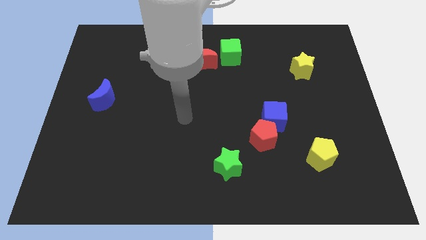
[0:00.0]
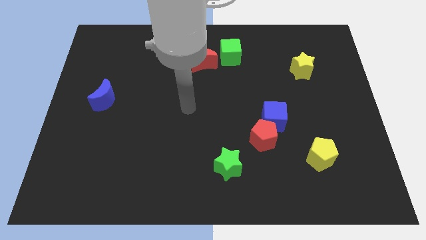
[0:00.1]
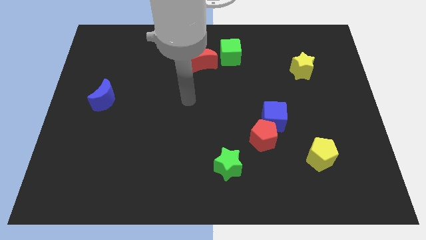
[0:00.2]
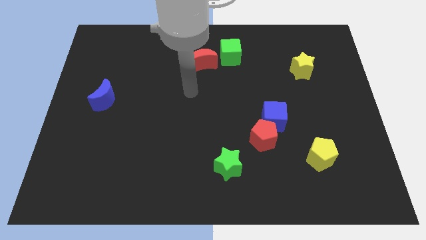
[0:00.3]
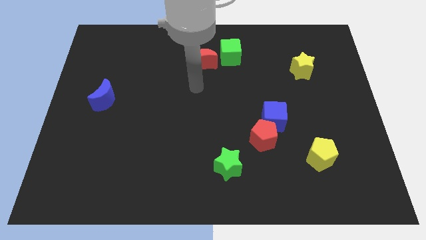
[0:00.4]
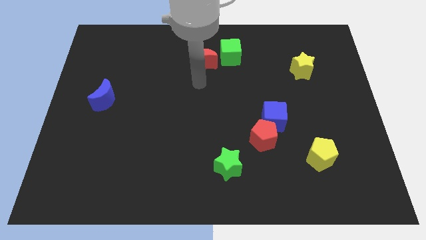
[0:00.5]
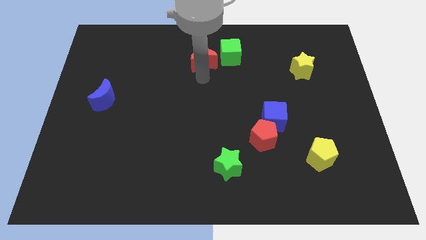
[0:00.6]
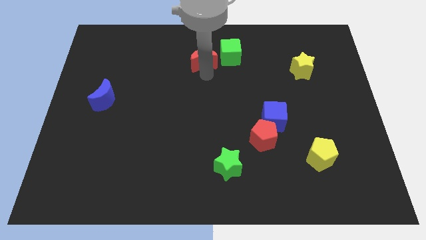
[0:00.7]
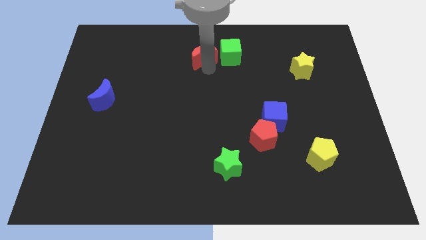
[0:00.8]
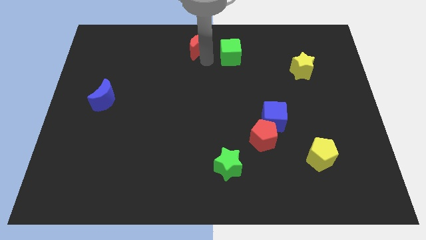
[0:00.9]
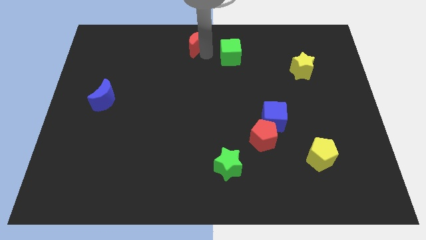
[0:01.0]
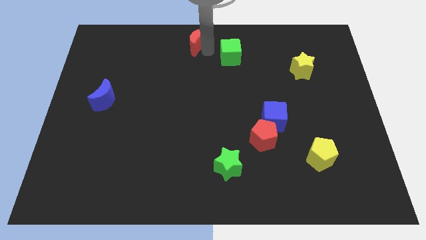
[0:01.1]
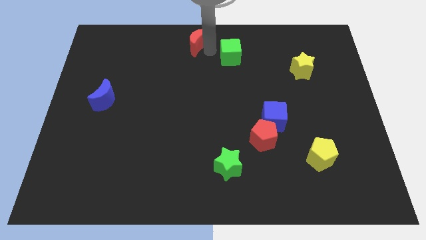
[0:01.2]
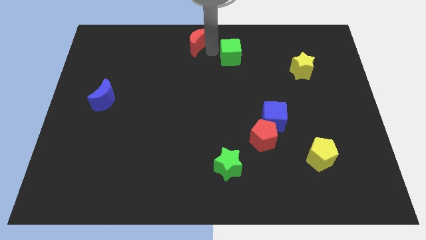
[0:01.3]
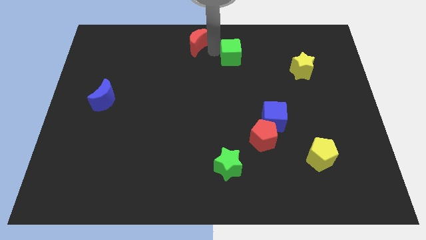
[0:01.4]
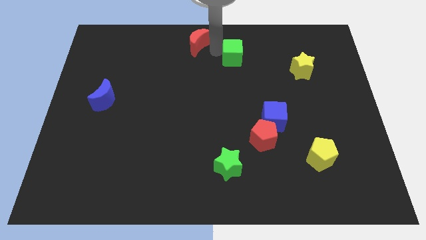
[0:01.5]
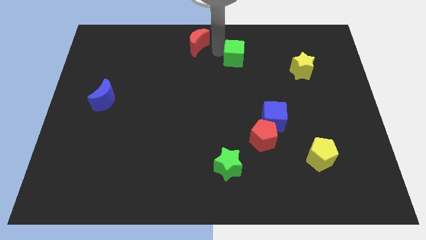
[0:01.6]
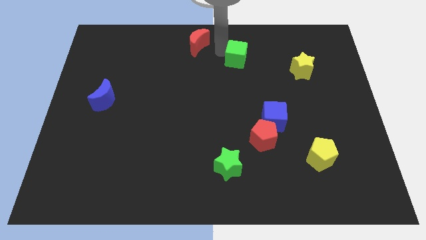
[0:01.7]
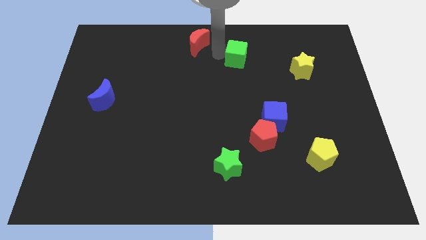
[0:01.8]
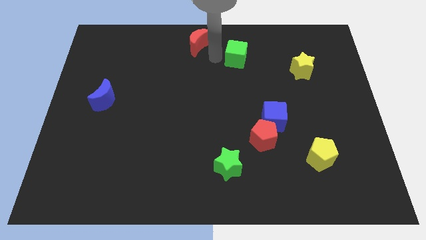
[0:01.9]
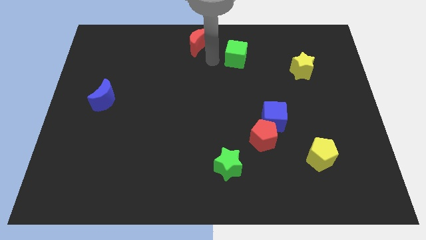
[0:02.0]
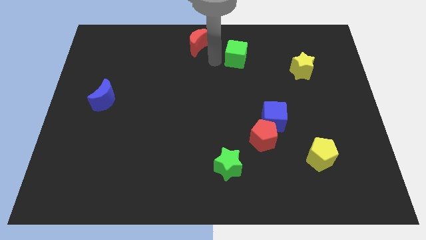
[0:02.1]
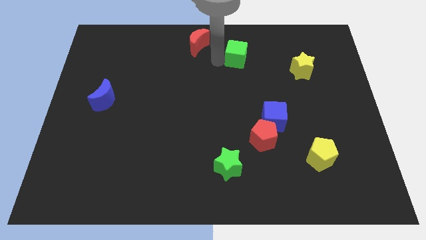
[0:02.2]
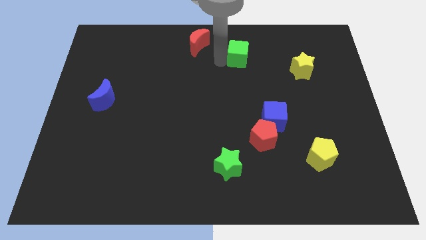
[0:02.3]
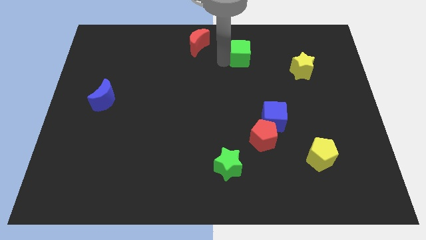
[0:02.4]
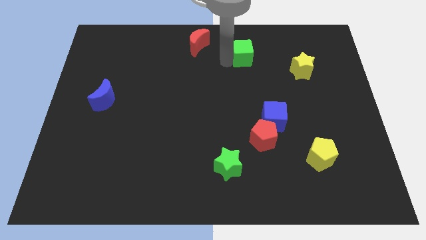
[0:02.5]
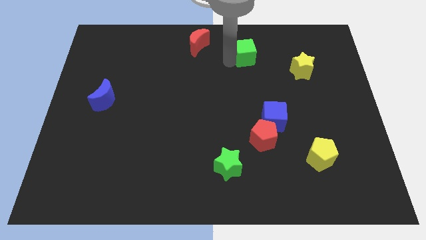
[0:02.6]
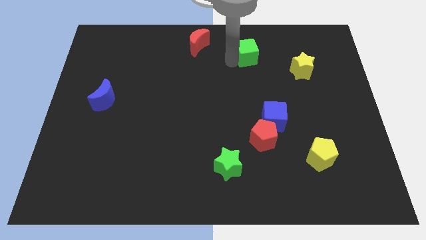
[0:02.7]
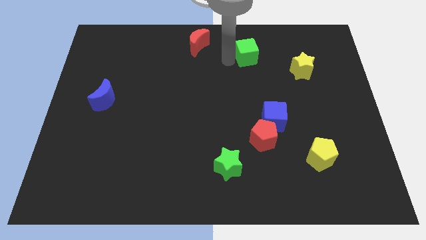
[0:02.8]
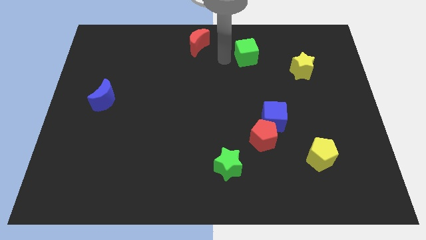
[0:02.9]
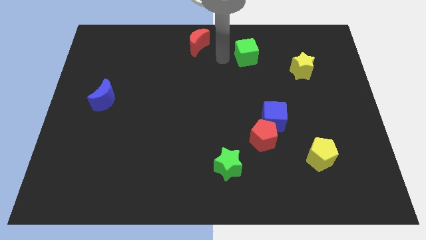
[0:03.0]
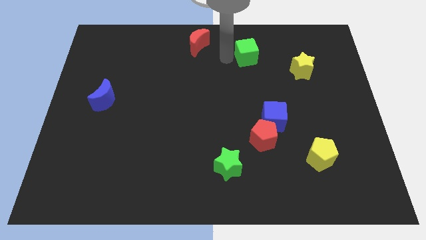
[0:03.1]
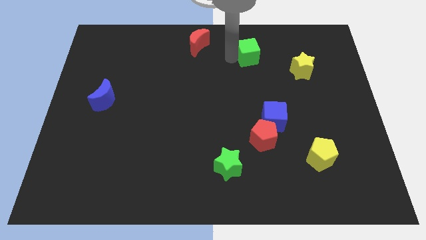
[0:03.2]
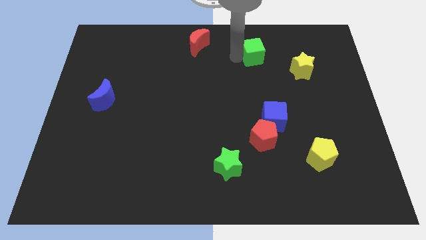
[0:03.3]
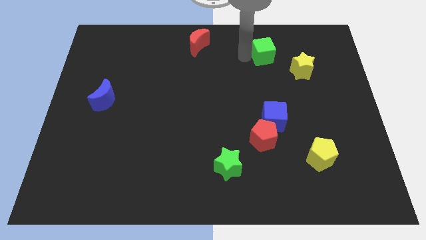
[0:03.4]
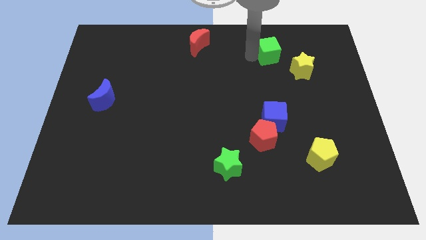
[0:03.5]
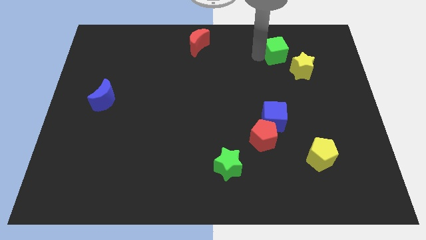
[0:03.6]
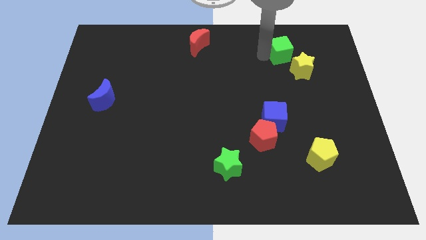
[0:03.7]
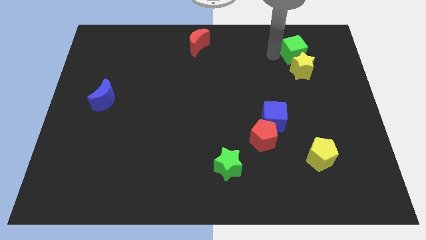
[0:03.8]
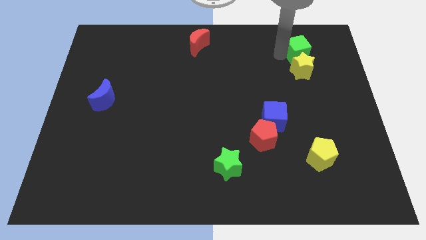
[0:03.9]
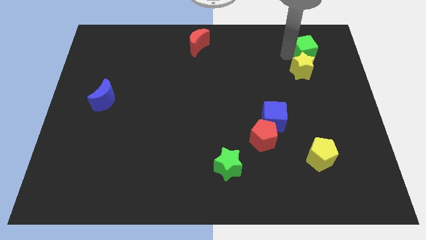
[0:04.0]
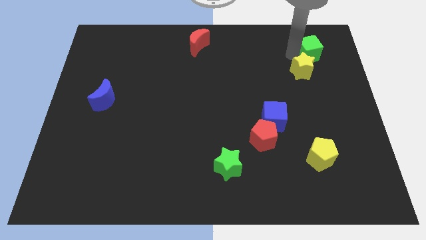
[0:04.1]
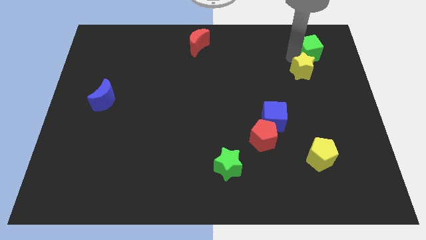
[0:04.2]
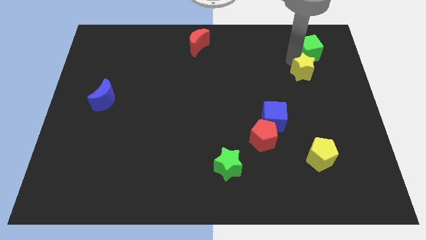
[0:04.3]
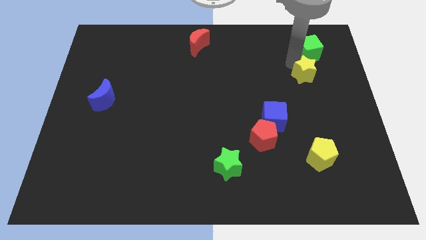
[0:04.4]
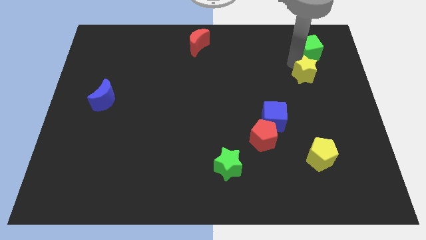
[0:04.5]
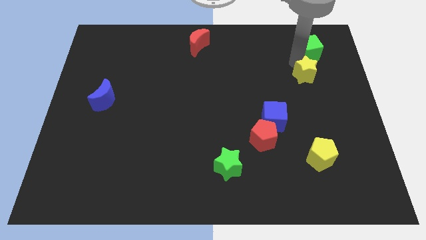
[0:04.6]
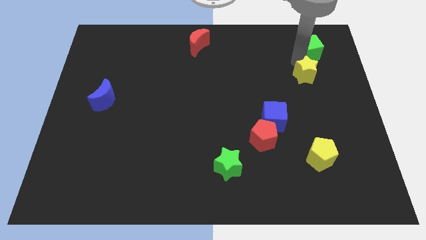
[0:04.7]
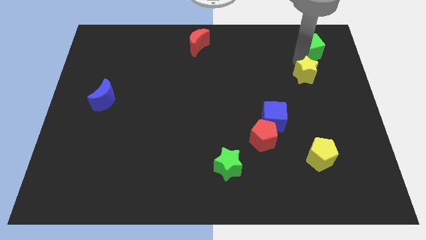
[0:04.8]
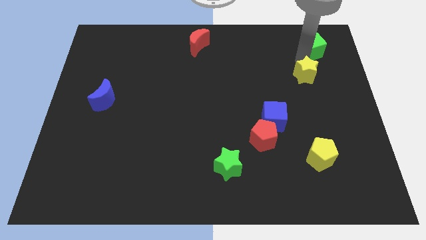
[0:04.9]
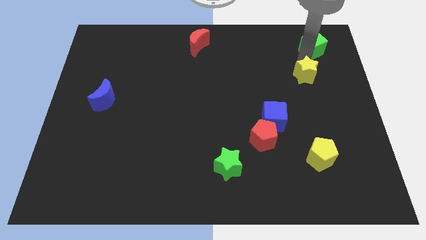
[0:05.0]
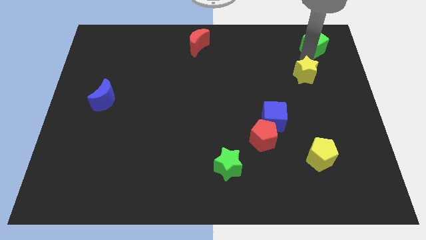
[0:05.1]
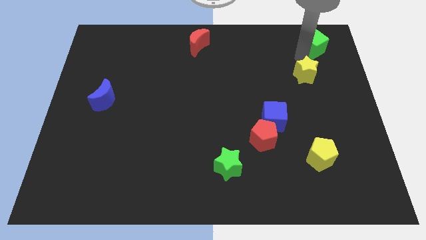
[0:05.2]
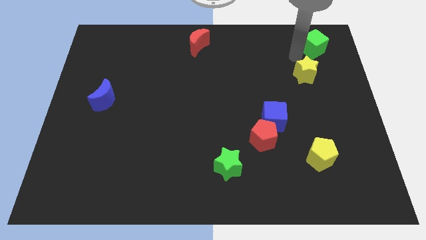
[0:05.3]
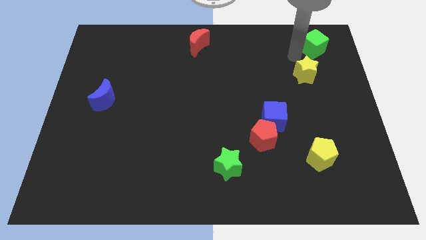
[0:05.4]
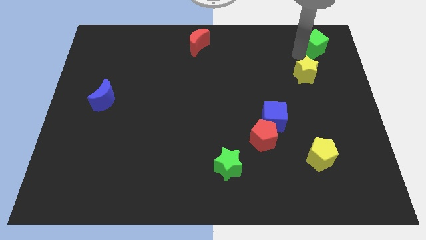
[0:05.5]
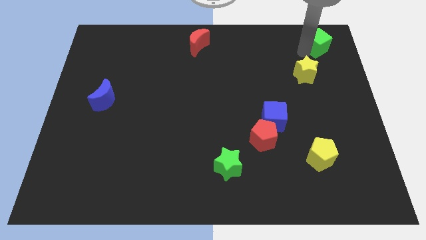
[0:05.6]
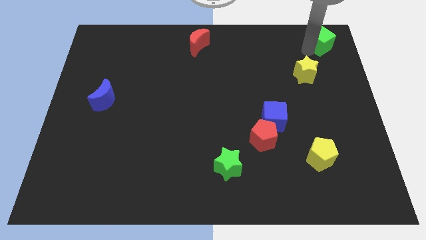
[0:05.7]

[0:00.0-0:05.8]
slide the green cube to the top right corner
